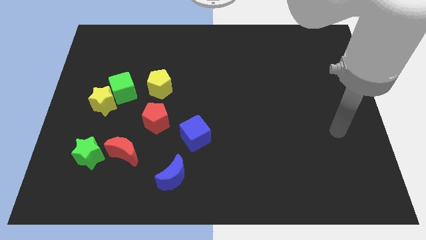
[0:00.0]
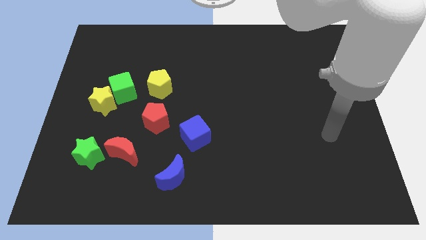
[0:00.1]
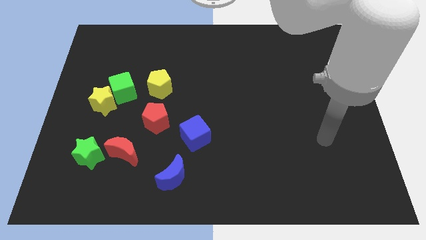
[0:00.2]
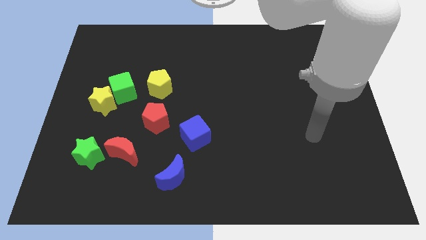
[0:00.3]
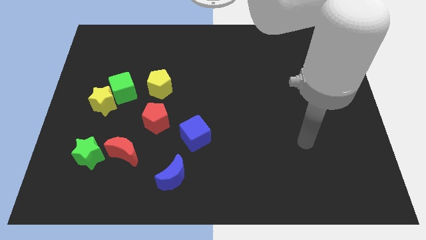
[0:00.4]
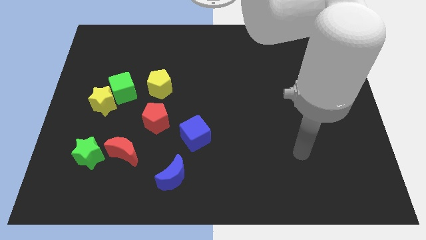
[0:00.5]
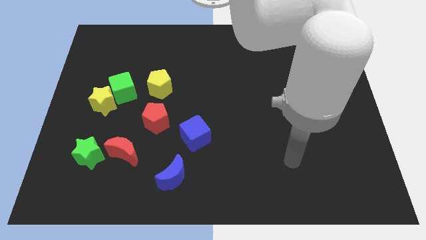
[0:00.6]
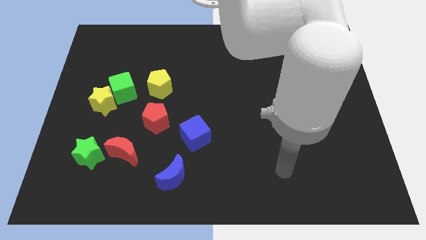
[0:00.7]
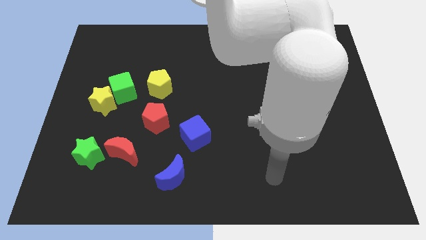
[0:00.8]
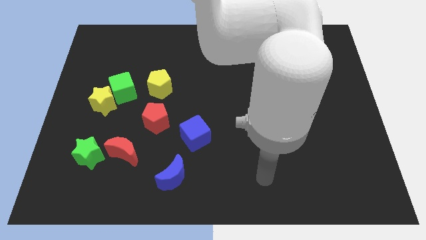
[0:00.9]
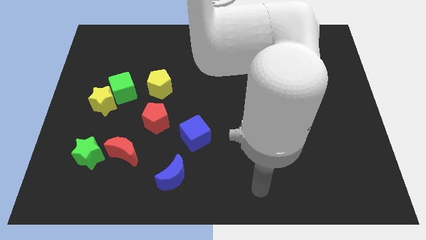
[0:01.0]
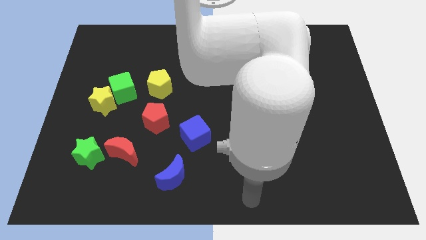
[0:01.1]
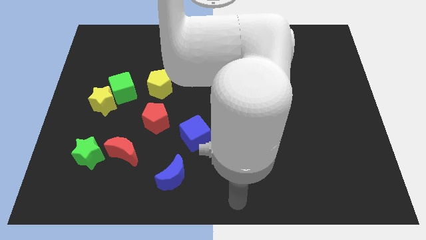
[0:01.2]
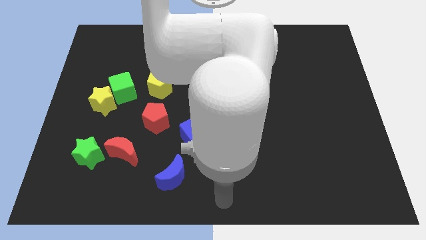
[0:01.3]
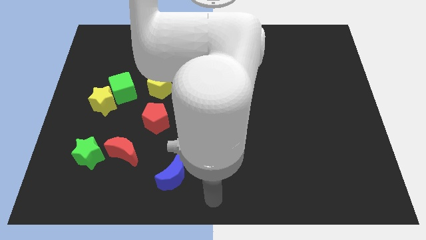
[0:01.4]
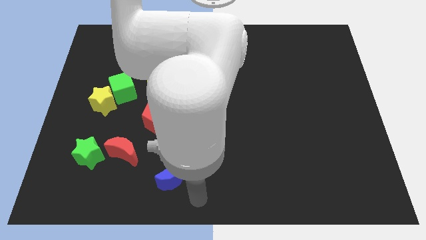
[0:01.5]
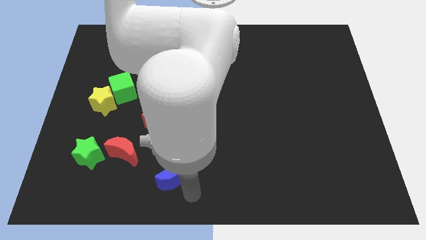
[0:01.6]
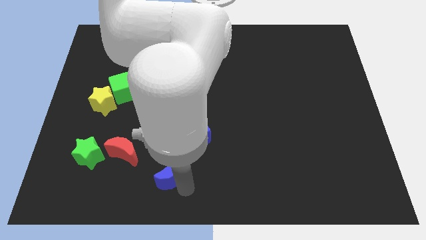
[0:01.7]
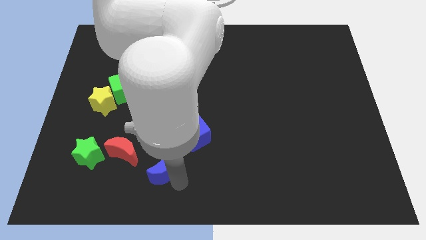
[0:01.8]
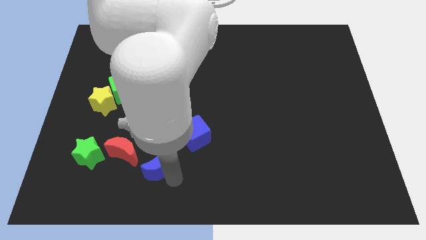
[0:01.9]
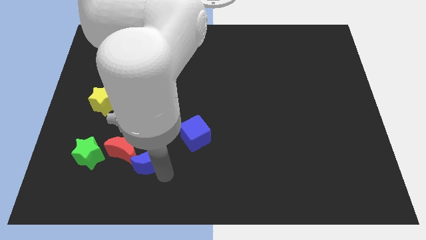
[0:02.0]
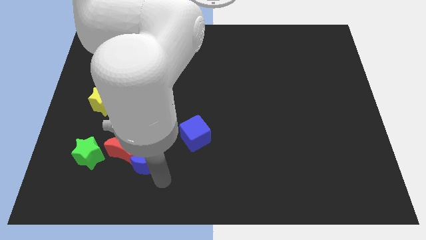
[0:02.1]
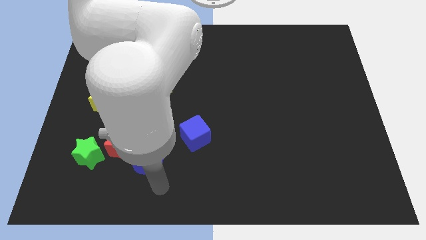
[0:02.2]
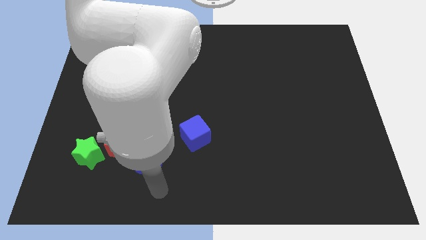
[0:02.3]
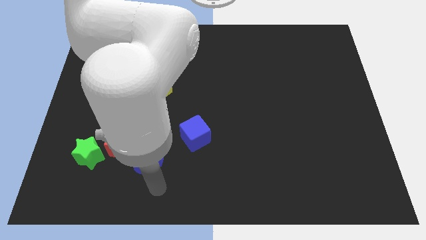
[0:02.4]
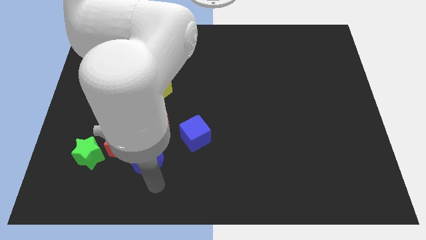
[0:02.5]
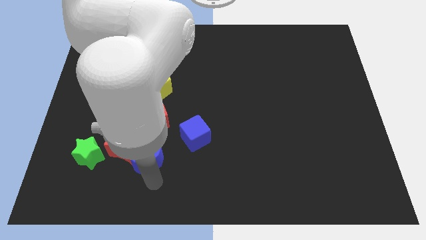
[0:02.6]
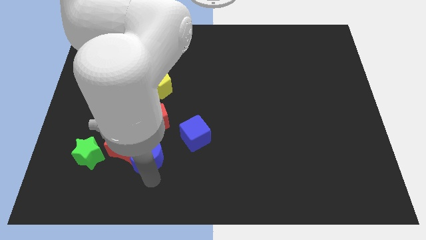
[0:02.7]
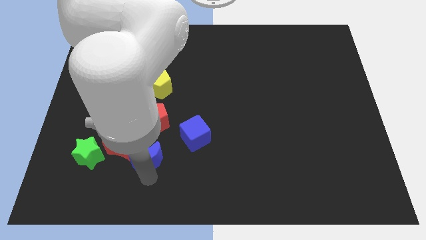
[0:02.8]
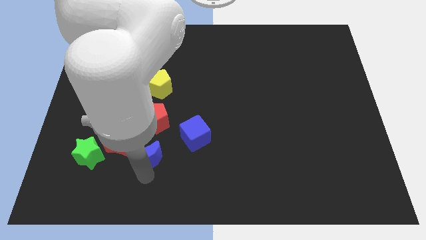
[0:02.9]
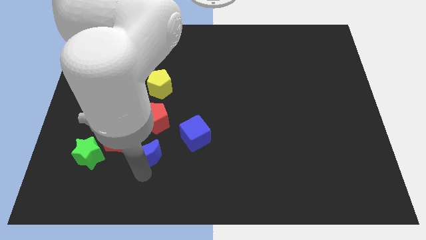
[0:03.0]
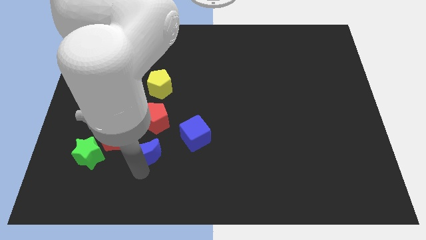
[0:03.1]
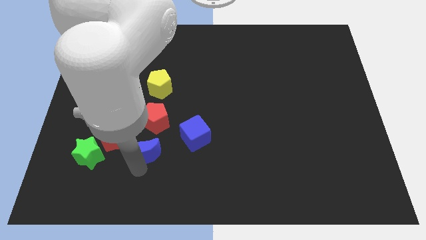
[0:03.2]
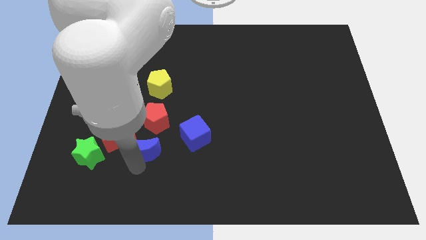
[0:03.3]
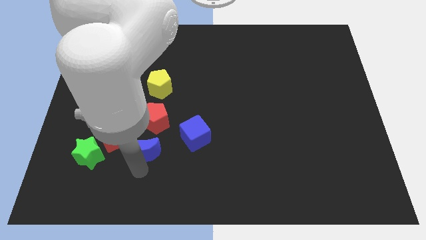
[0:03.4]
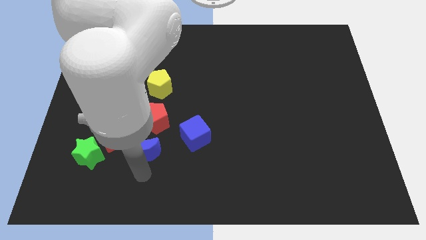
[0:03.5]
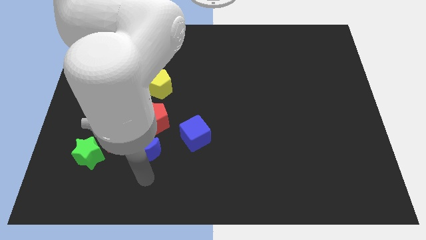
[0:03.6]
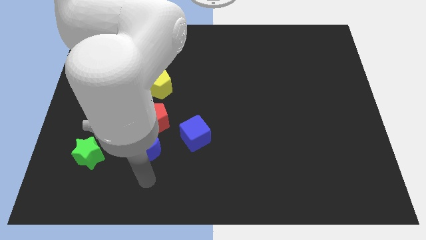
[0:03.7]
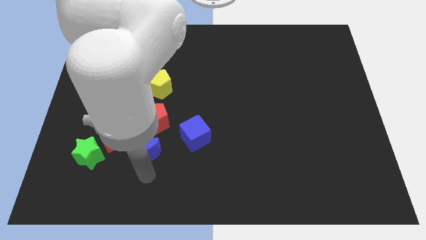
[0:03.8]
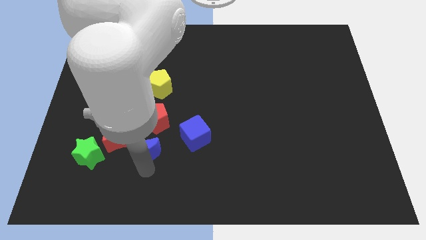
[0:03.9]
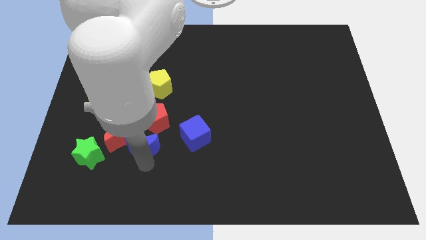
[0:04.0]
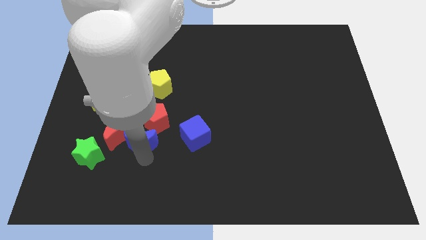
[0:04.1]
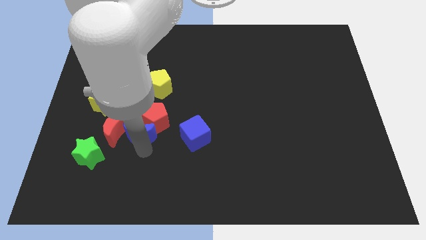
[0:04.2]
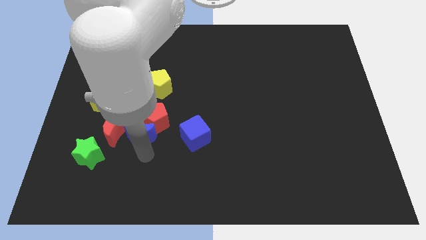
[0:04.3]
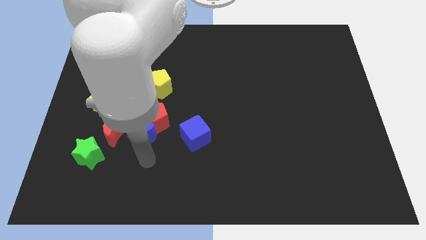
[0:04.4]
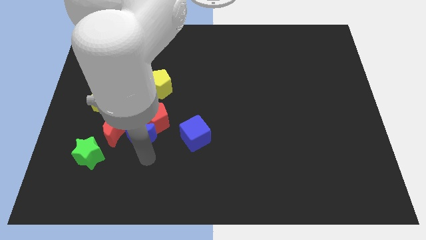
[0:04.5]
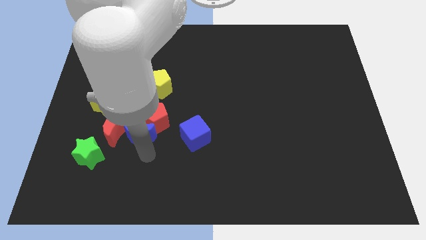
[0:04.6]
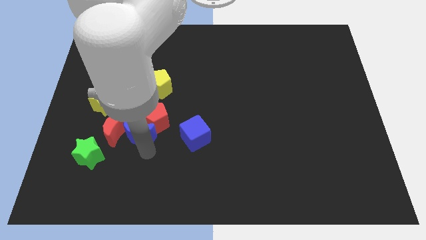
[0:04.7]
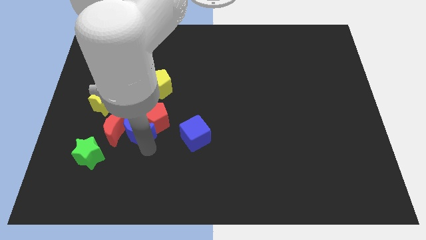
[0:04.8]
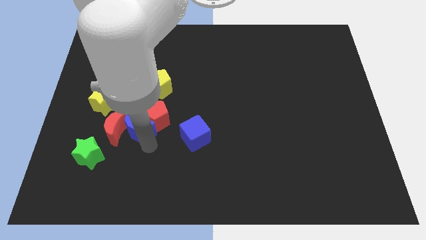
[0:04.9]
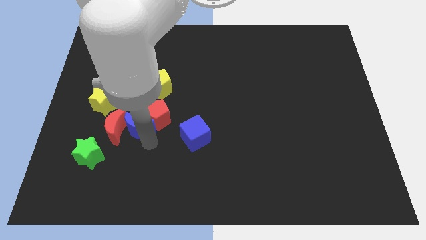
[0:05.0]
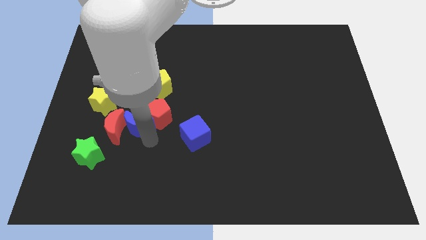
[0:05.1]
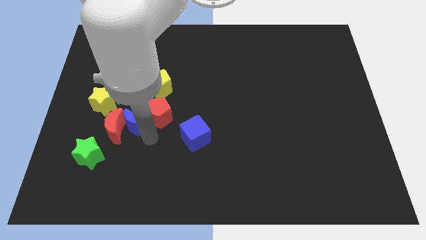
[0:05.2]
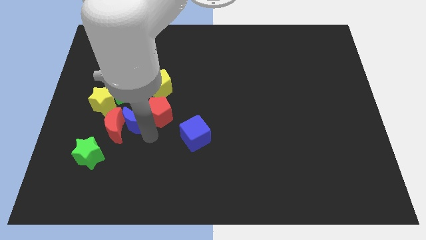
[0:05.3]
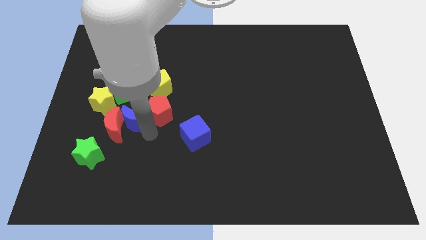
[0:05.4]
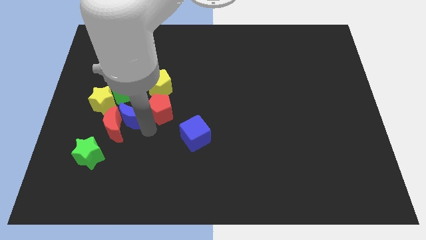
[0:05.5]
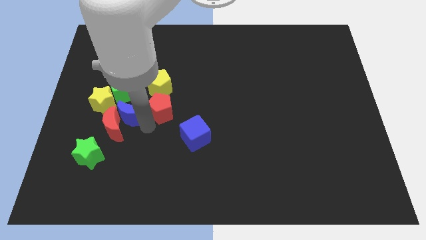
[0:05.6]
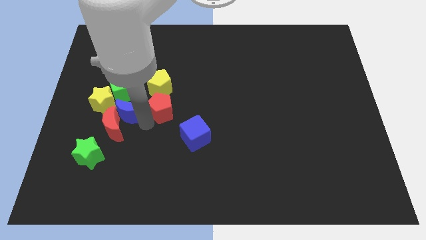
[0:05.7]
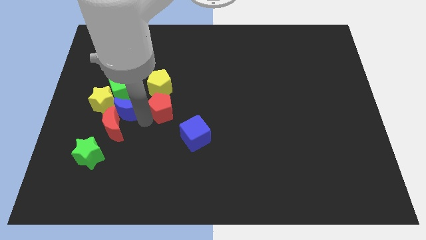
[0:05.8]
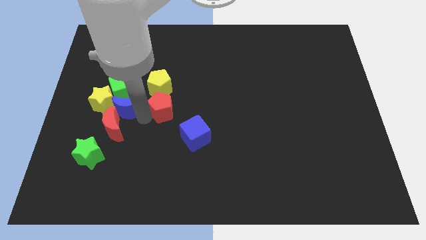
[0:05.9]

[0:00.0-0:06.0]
move the blue moon towards the green cube

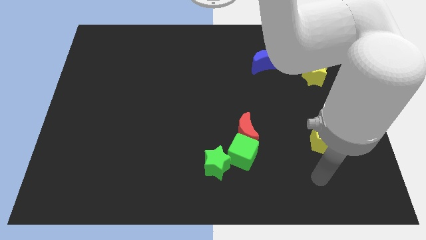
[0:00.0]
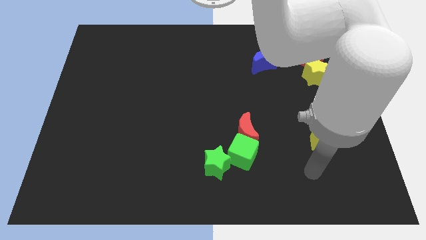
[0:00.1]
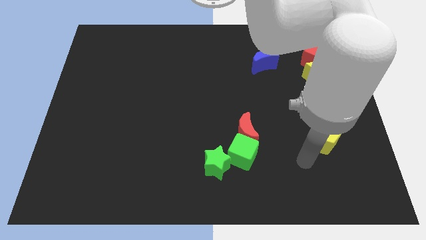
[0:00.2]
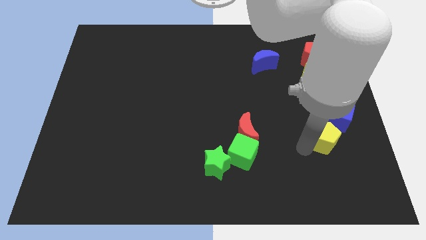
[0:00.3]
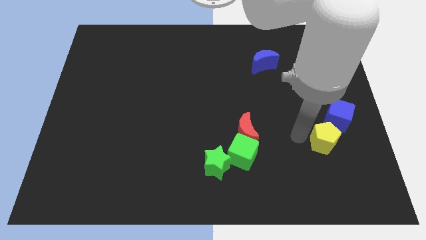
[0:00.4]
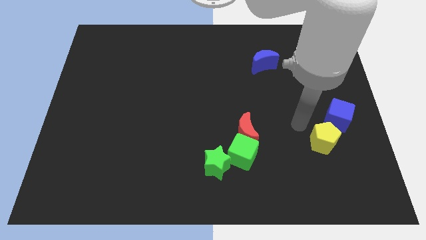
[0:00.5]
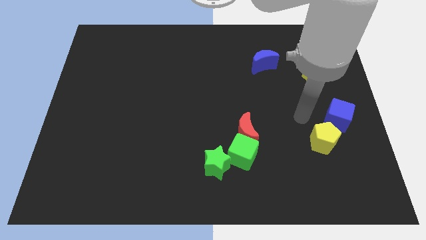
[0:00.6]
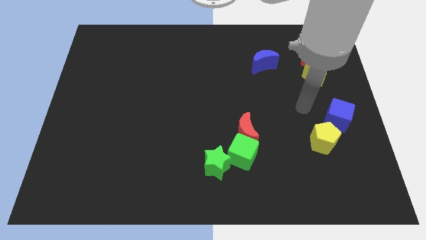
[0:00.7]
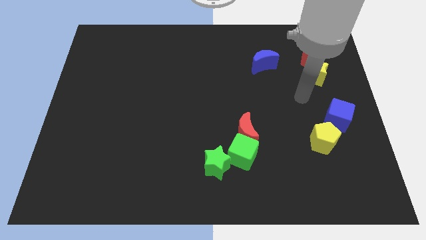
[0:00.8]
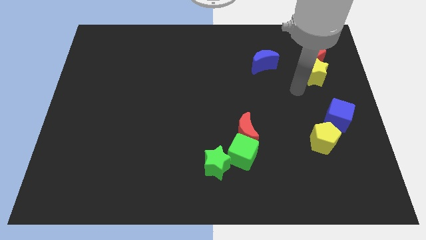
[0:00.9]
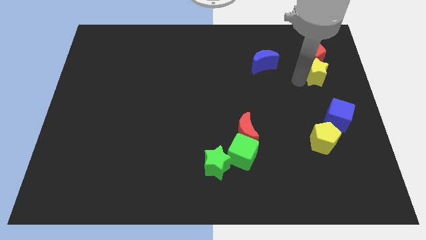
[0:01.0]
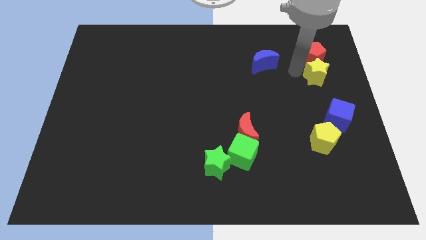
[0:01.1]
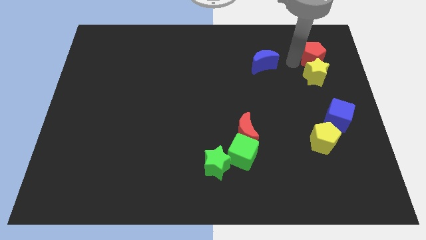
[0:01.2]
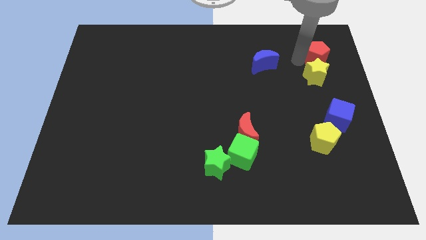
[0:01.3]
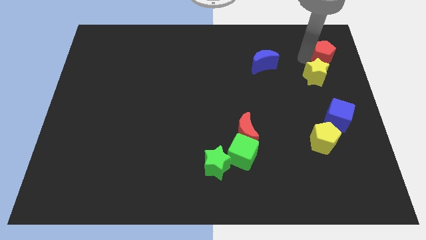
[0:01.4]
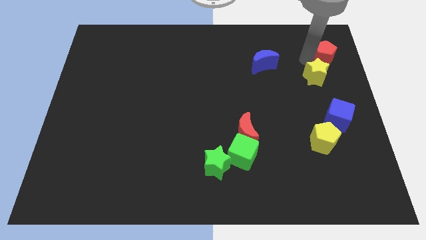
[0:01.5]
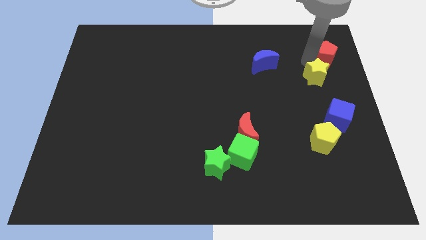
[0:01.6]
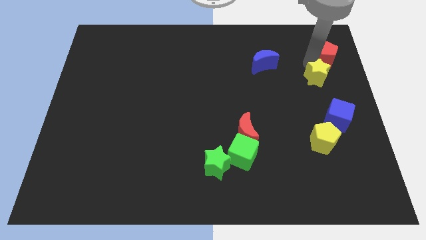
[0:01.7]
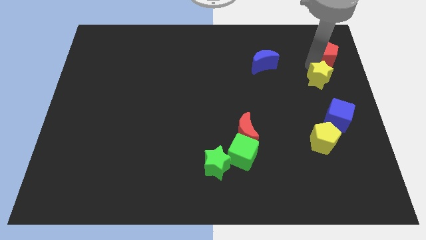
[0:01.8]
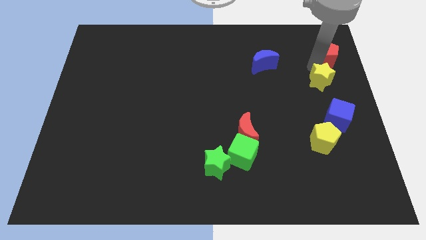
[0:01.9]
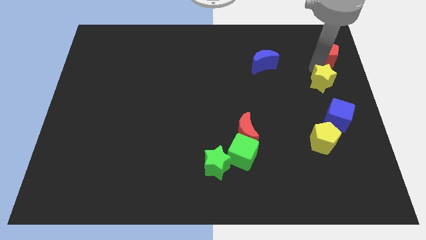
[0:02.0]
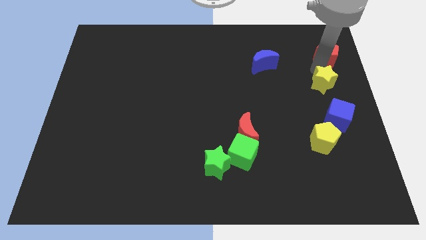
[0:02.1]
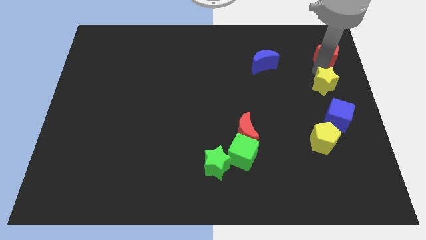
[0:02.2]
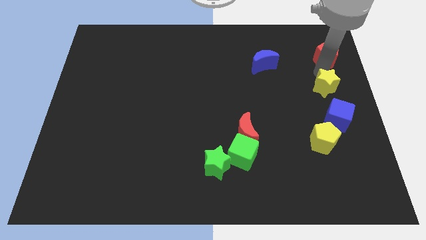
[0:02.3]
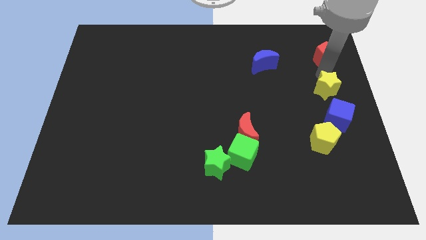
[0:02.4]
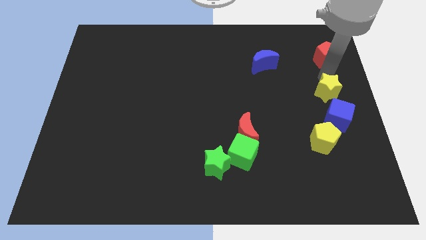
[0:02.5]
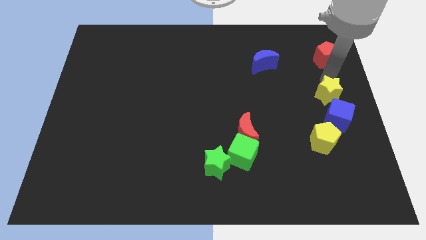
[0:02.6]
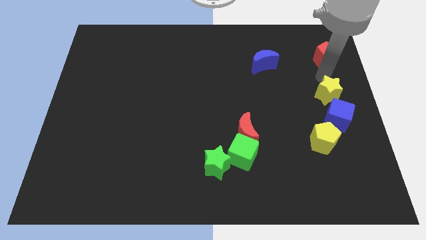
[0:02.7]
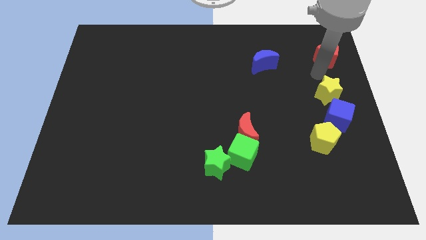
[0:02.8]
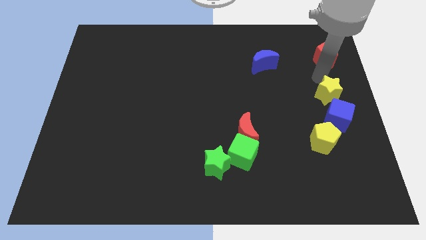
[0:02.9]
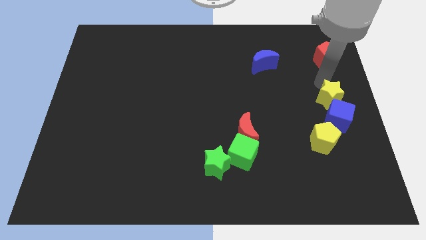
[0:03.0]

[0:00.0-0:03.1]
push the yellow star towards the blue cube
